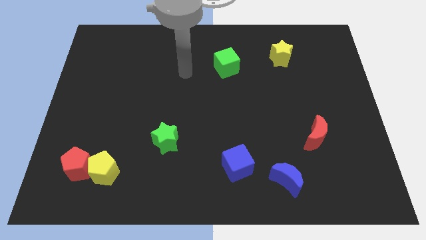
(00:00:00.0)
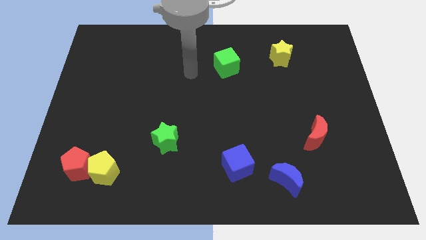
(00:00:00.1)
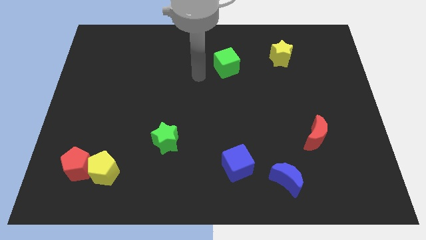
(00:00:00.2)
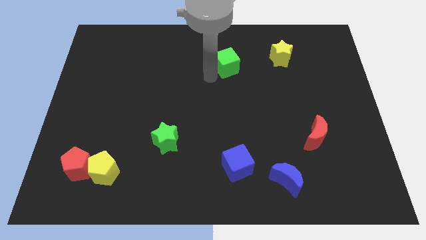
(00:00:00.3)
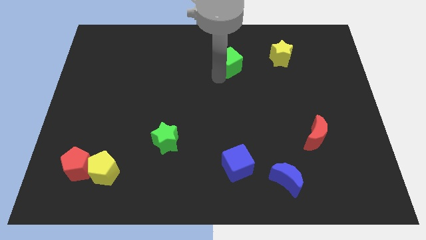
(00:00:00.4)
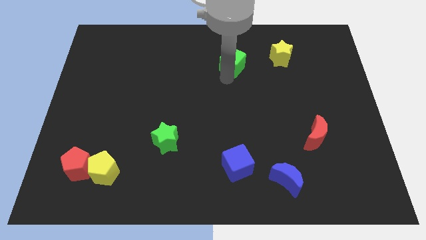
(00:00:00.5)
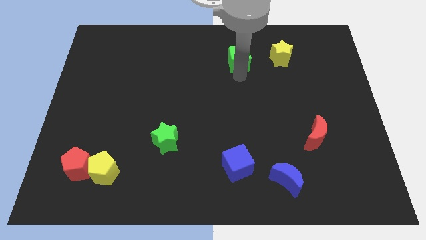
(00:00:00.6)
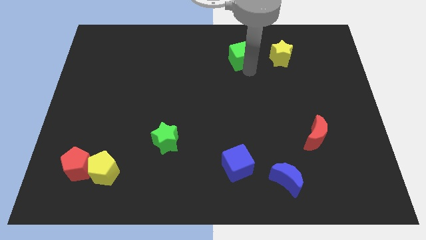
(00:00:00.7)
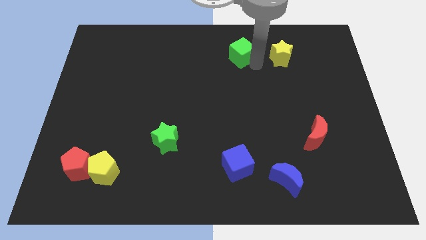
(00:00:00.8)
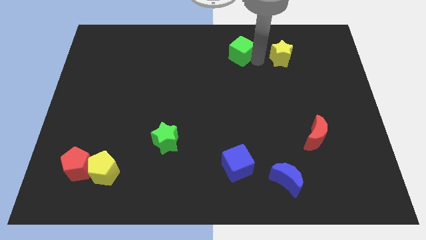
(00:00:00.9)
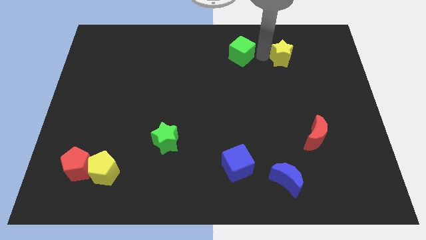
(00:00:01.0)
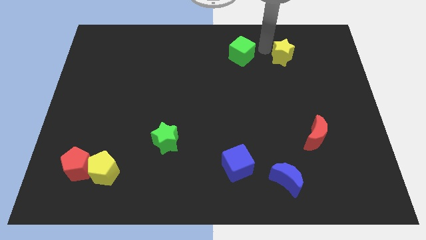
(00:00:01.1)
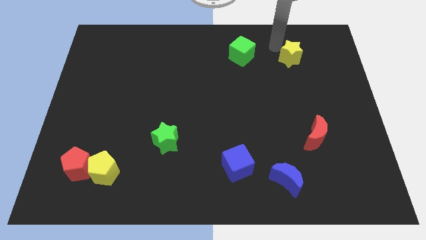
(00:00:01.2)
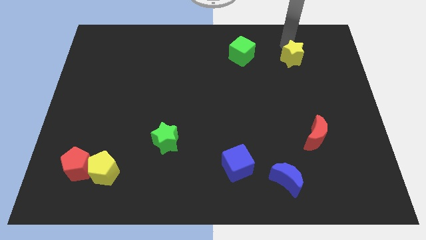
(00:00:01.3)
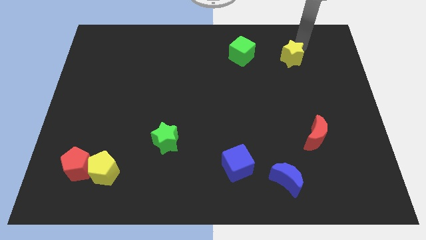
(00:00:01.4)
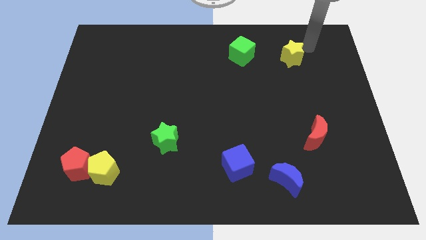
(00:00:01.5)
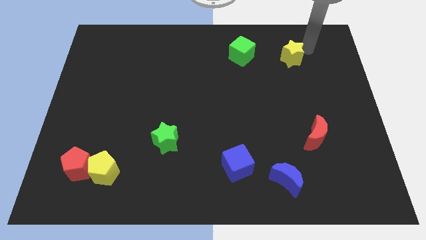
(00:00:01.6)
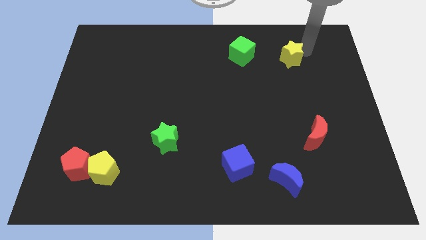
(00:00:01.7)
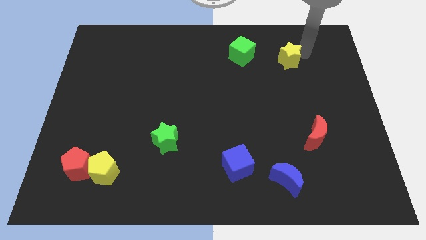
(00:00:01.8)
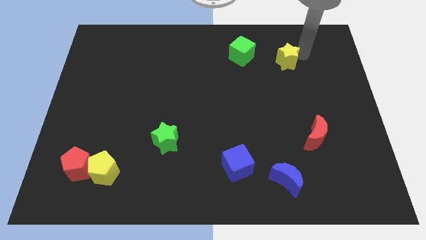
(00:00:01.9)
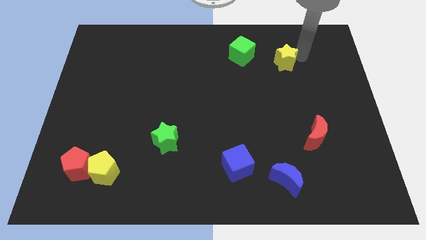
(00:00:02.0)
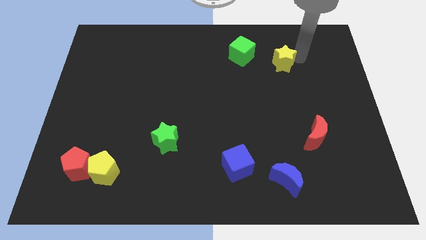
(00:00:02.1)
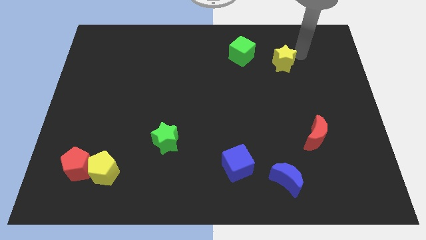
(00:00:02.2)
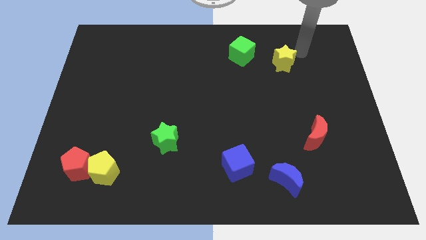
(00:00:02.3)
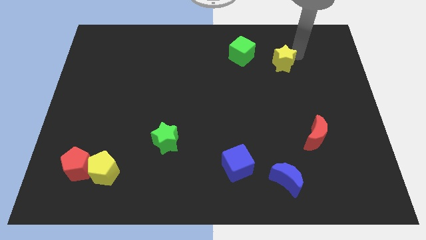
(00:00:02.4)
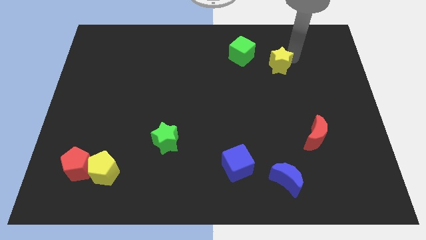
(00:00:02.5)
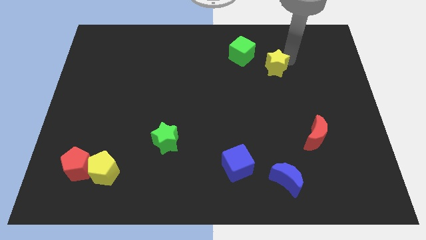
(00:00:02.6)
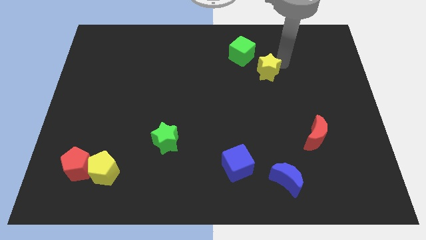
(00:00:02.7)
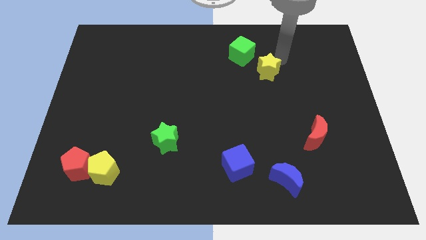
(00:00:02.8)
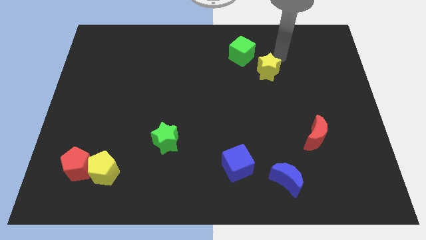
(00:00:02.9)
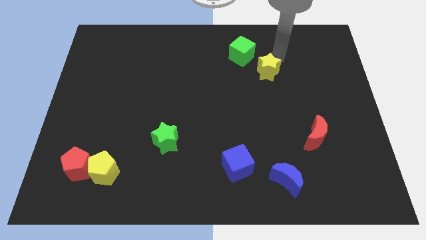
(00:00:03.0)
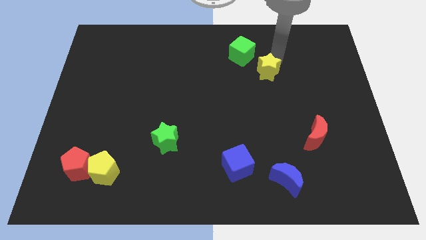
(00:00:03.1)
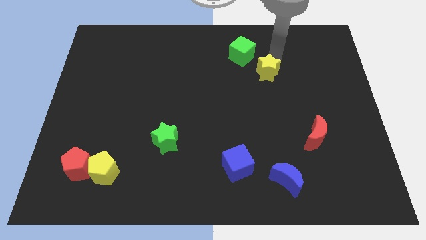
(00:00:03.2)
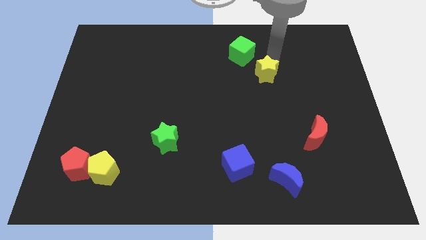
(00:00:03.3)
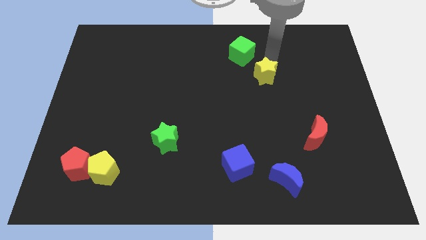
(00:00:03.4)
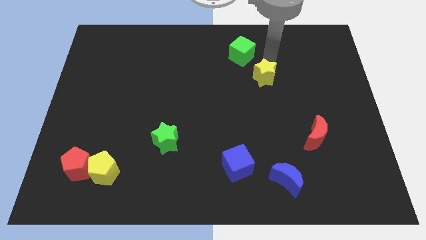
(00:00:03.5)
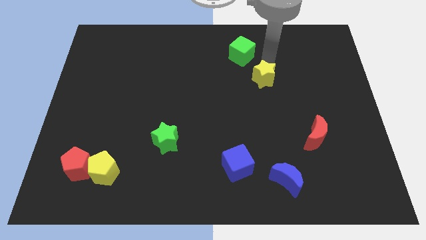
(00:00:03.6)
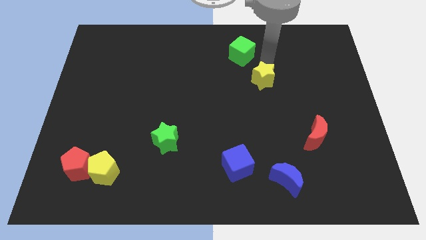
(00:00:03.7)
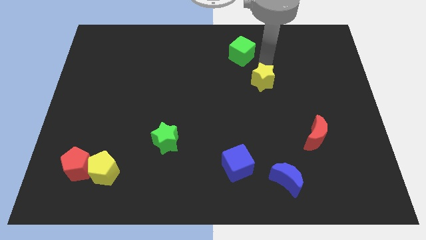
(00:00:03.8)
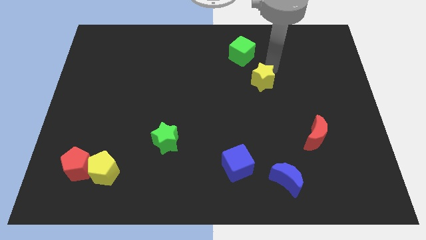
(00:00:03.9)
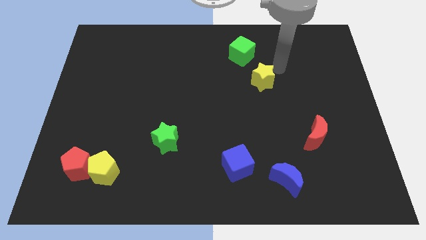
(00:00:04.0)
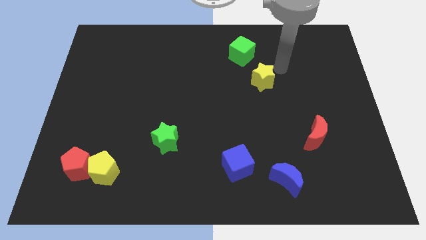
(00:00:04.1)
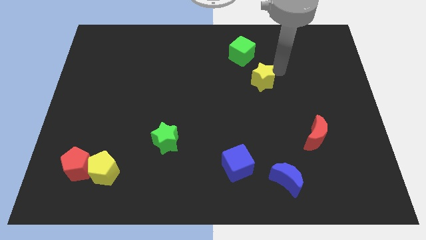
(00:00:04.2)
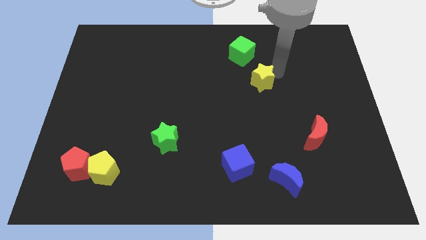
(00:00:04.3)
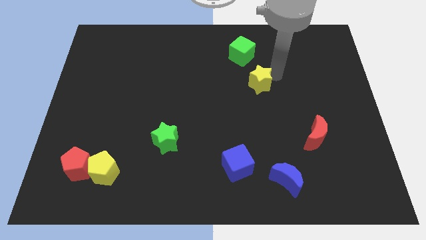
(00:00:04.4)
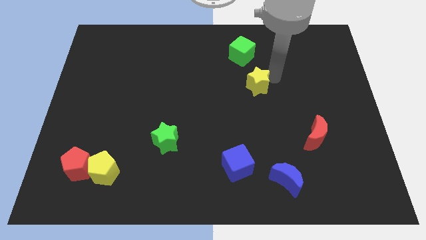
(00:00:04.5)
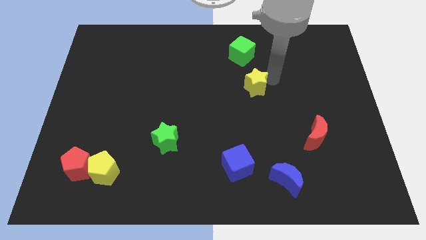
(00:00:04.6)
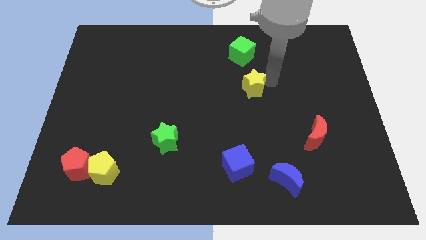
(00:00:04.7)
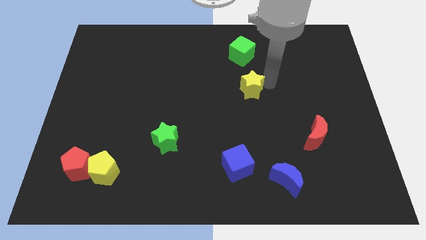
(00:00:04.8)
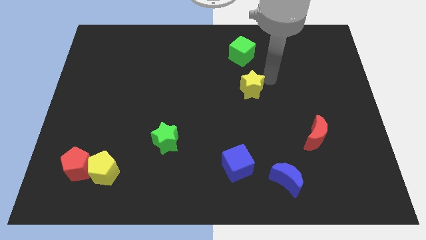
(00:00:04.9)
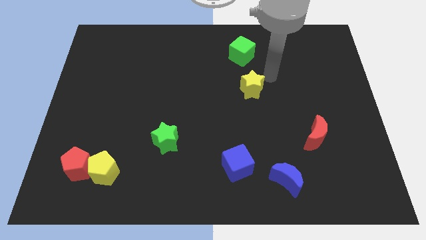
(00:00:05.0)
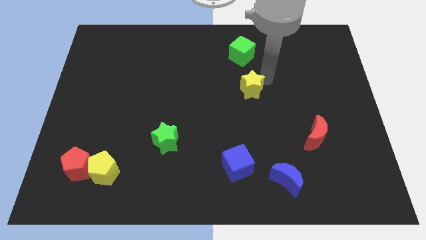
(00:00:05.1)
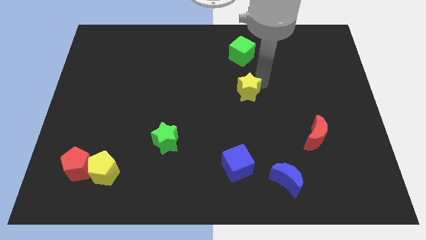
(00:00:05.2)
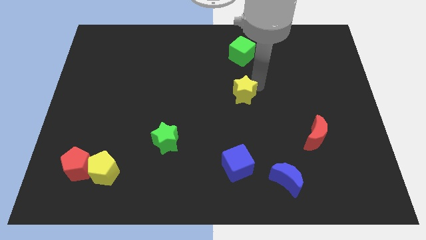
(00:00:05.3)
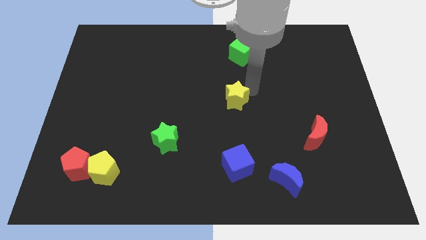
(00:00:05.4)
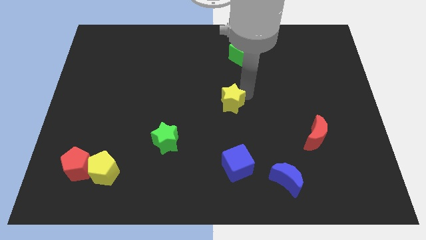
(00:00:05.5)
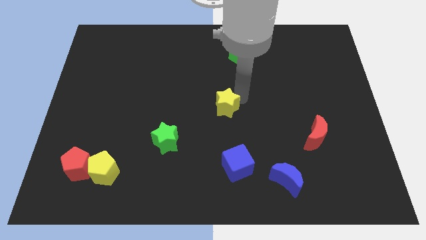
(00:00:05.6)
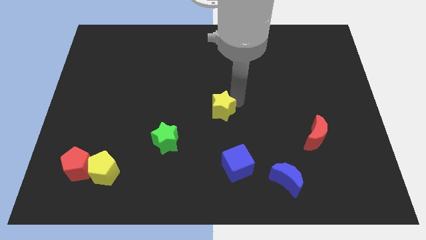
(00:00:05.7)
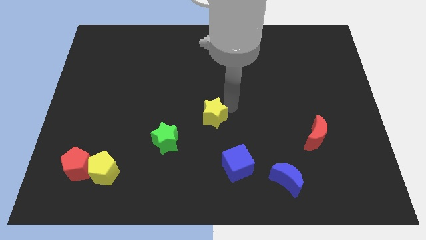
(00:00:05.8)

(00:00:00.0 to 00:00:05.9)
push the yellow star diagonally up and to the right of the green star
